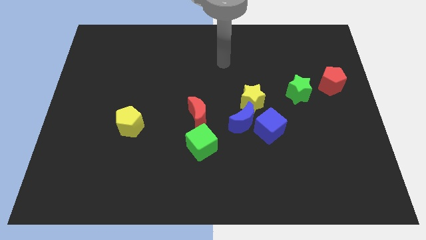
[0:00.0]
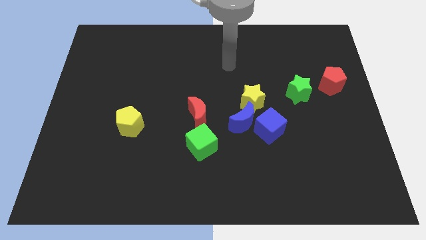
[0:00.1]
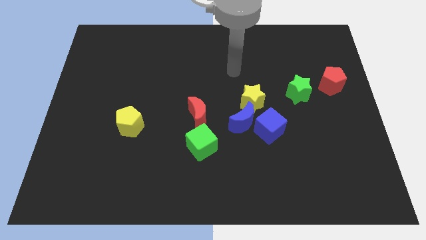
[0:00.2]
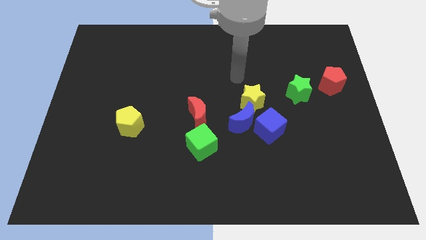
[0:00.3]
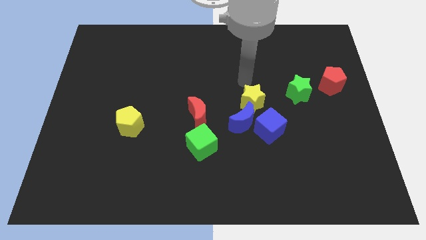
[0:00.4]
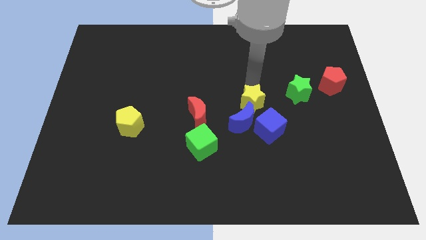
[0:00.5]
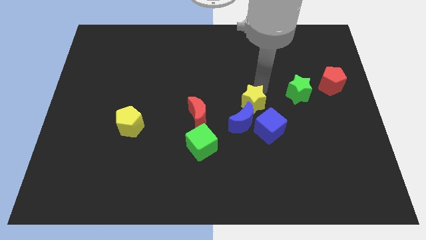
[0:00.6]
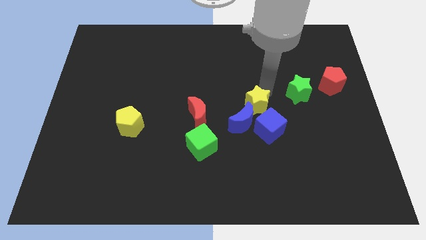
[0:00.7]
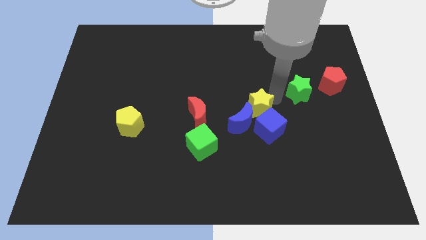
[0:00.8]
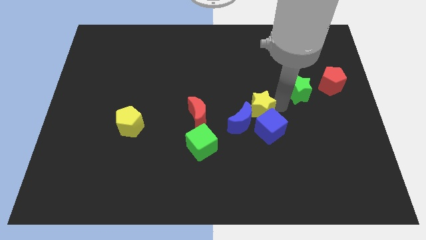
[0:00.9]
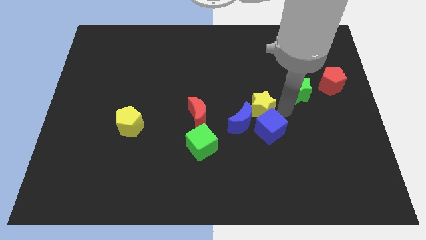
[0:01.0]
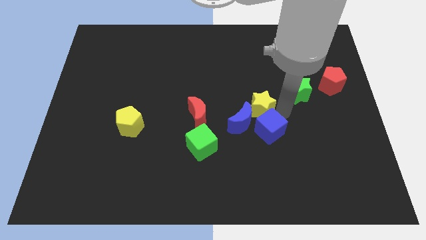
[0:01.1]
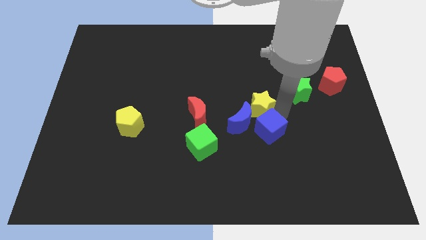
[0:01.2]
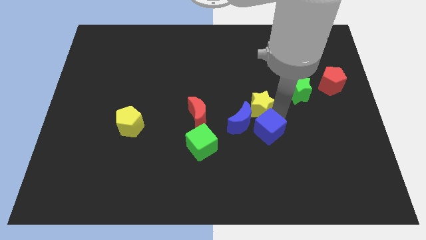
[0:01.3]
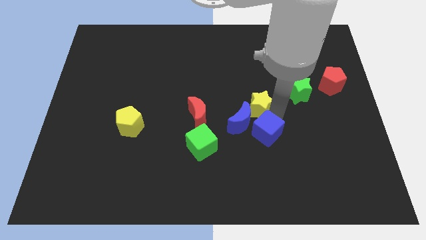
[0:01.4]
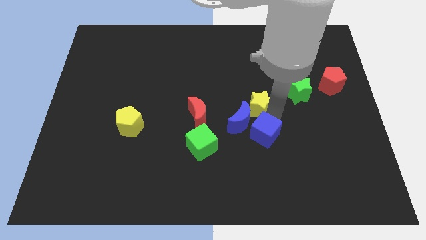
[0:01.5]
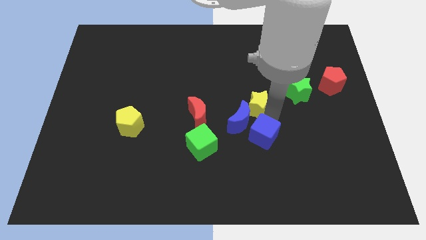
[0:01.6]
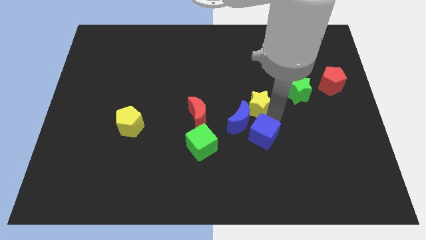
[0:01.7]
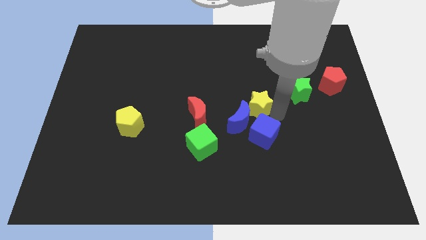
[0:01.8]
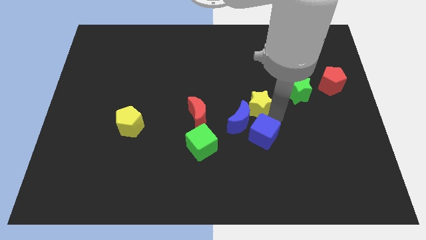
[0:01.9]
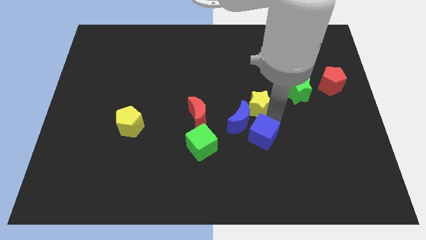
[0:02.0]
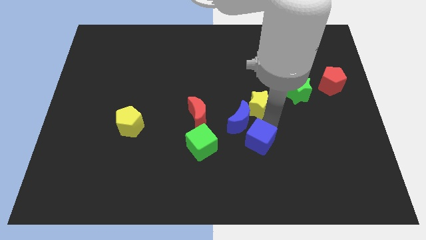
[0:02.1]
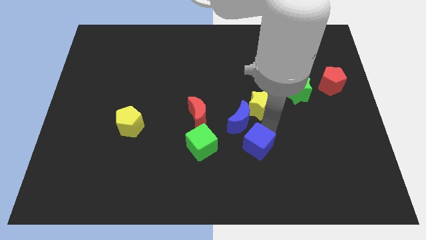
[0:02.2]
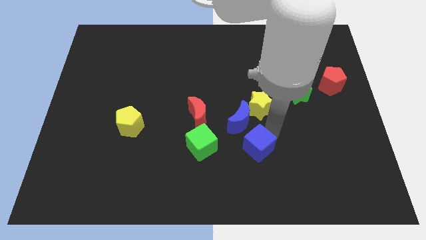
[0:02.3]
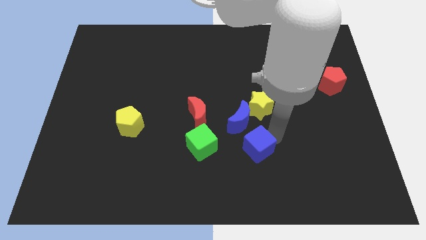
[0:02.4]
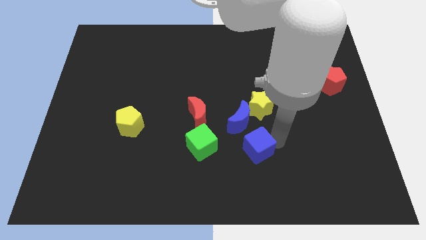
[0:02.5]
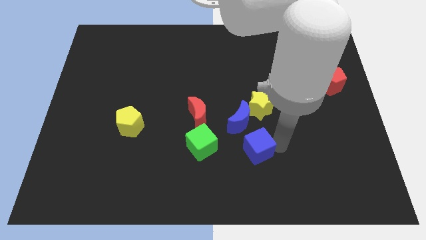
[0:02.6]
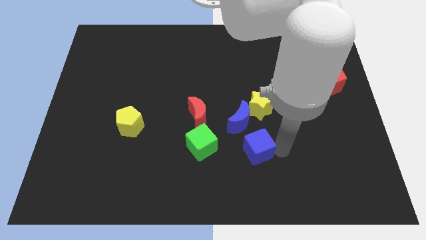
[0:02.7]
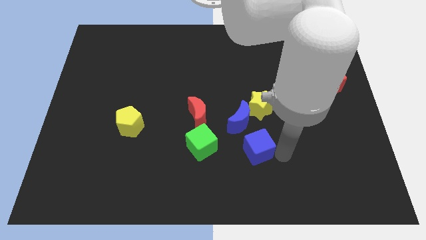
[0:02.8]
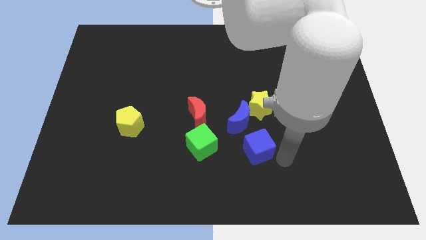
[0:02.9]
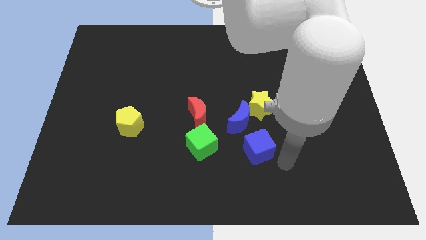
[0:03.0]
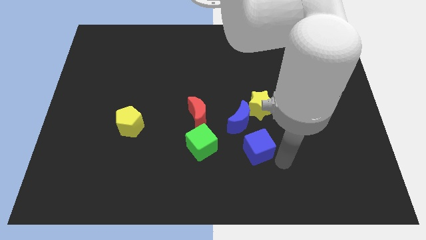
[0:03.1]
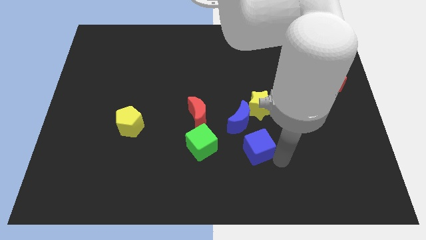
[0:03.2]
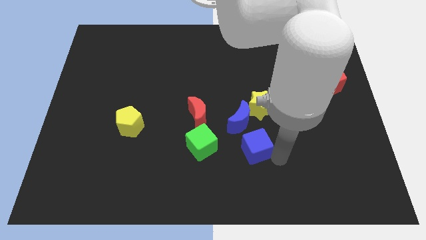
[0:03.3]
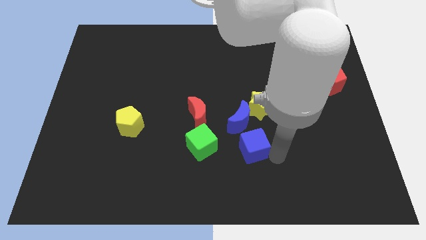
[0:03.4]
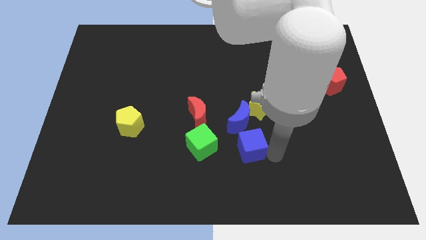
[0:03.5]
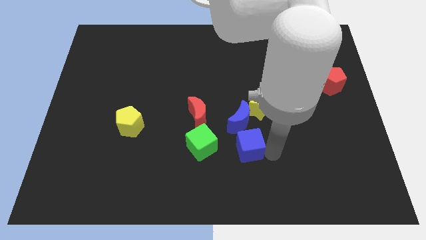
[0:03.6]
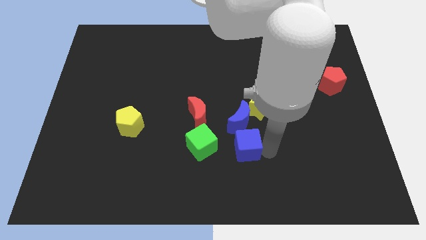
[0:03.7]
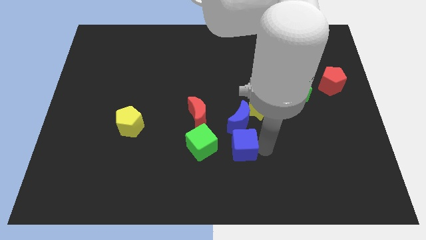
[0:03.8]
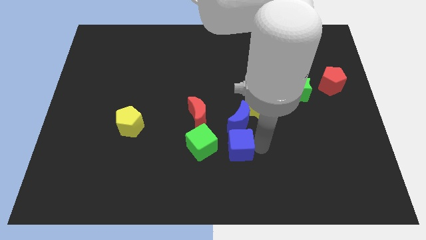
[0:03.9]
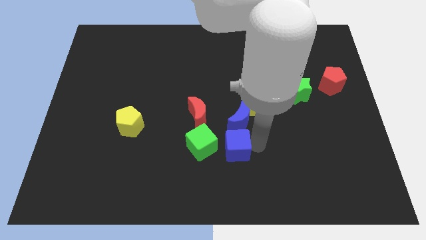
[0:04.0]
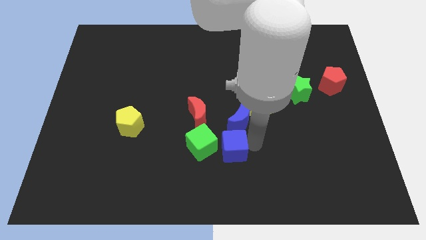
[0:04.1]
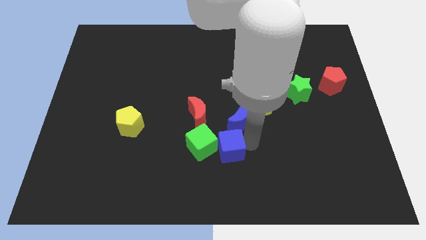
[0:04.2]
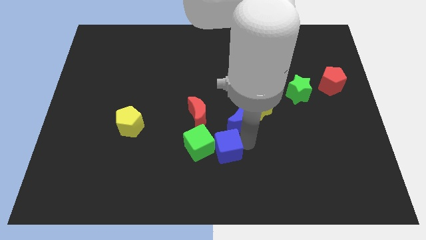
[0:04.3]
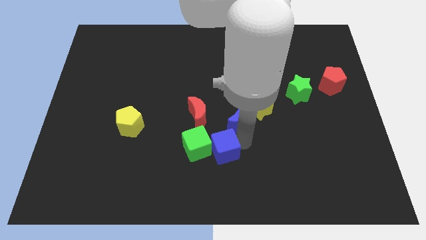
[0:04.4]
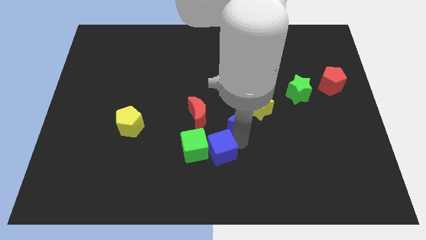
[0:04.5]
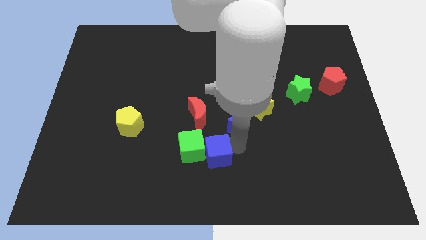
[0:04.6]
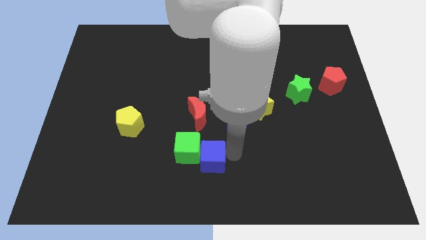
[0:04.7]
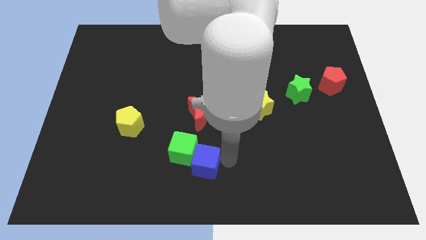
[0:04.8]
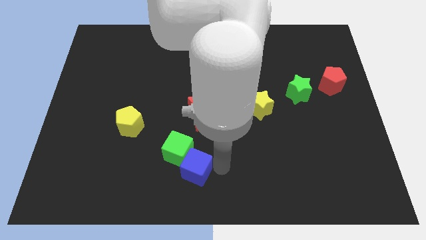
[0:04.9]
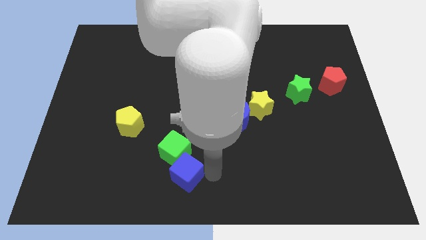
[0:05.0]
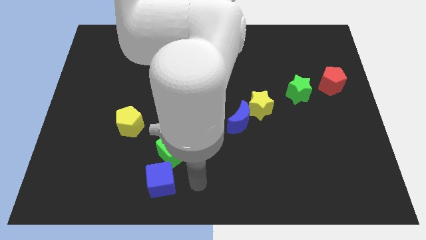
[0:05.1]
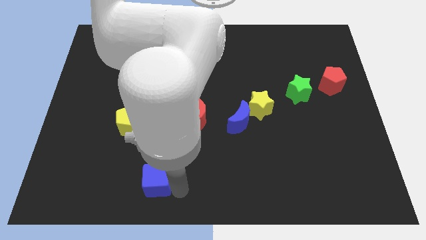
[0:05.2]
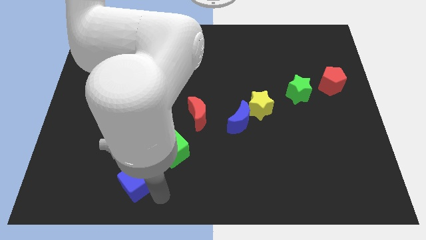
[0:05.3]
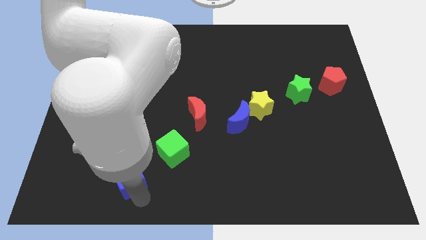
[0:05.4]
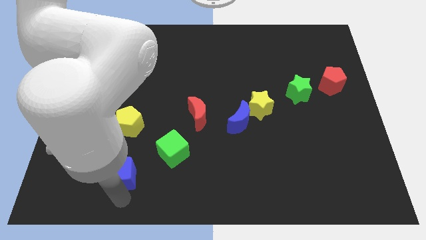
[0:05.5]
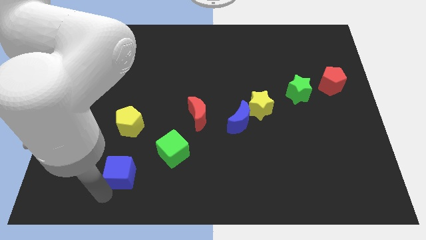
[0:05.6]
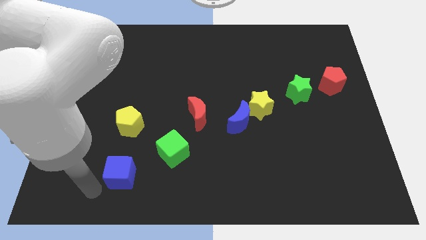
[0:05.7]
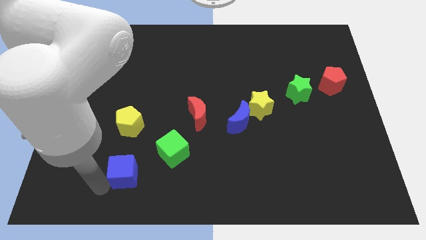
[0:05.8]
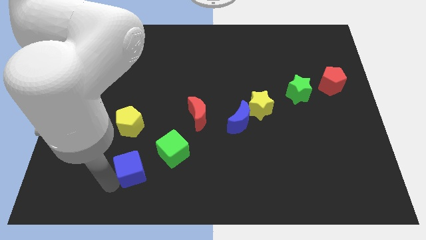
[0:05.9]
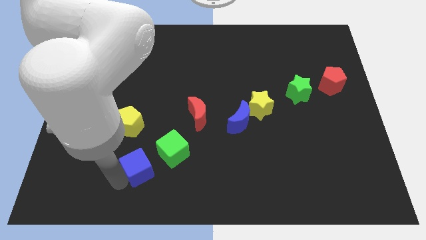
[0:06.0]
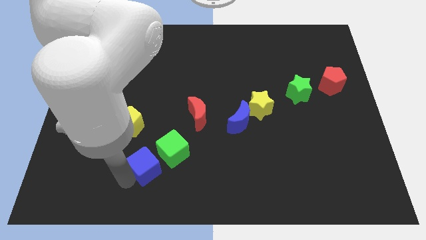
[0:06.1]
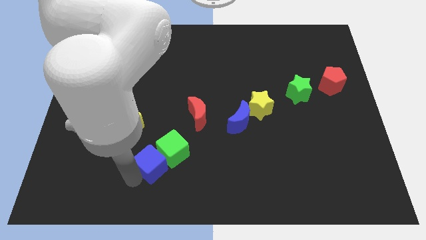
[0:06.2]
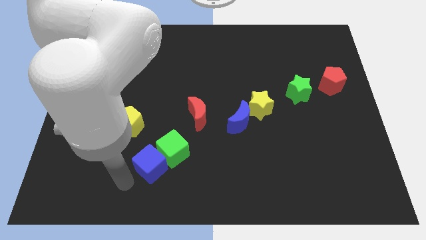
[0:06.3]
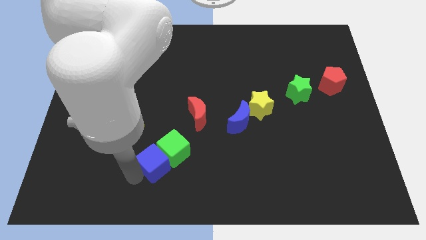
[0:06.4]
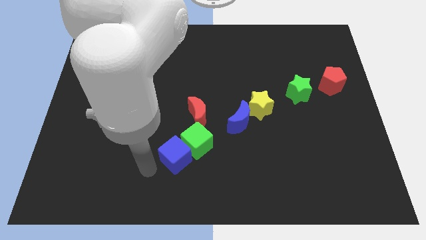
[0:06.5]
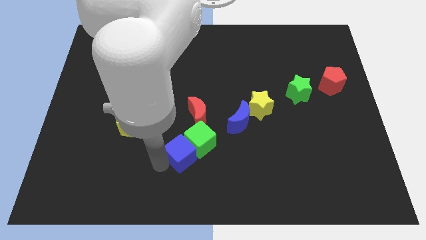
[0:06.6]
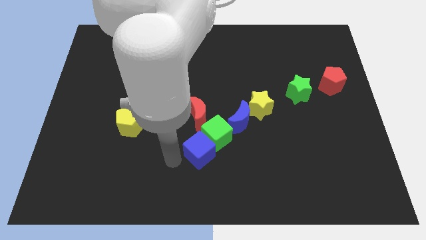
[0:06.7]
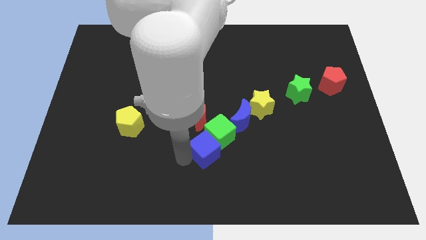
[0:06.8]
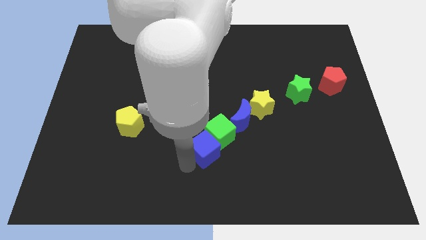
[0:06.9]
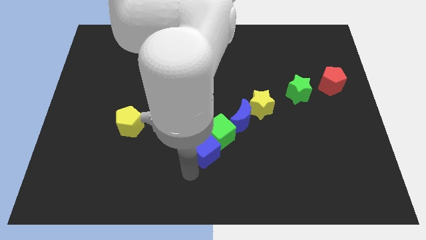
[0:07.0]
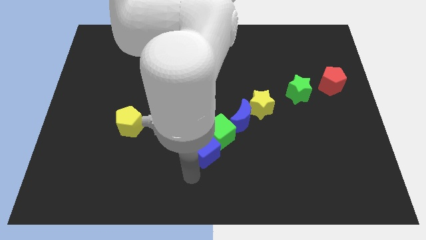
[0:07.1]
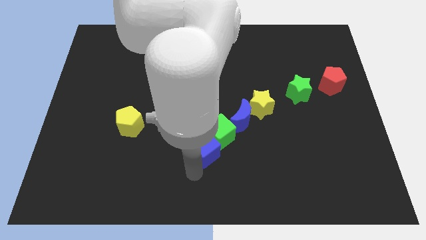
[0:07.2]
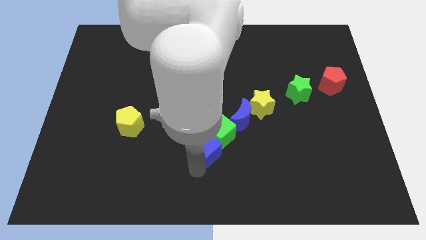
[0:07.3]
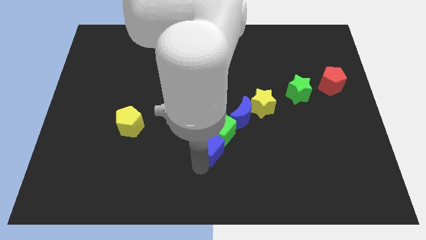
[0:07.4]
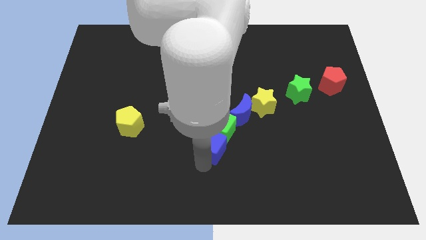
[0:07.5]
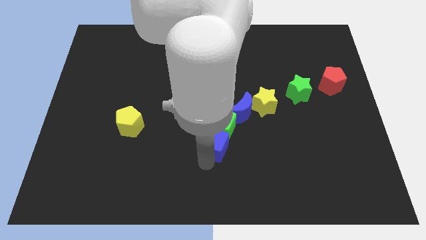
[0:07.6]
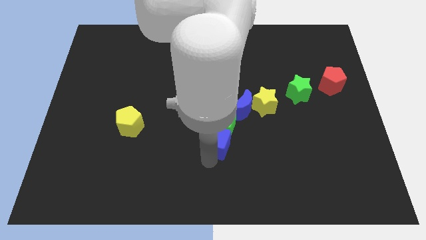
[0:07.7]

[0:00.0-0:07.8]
push the blue cube to the center of the board
